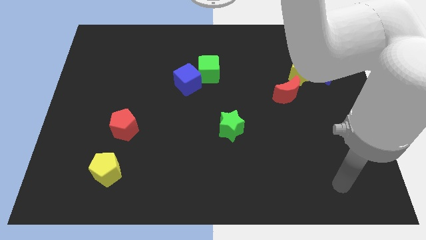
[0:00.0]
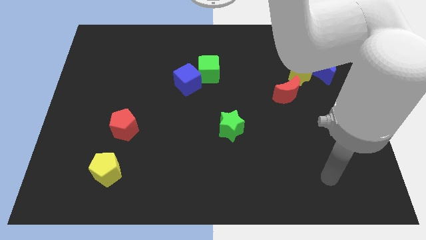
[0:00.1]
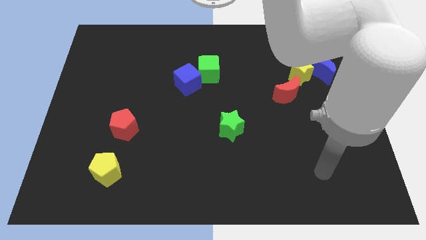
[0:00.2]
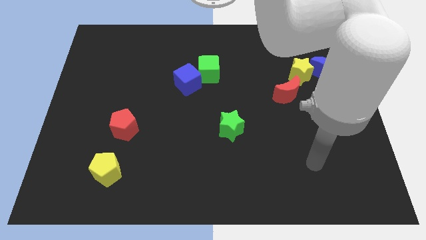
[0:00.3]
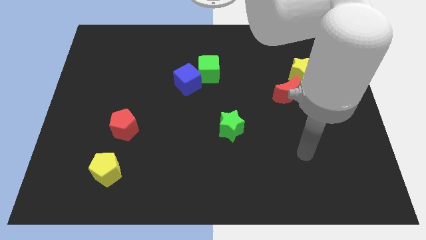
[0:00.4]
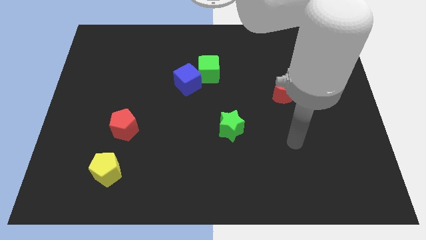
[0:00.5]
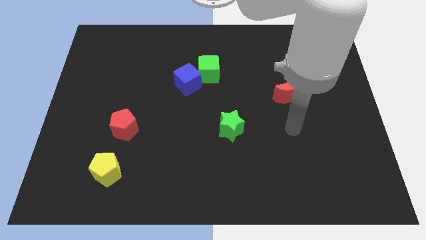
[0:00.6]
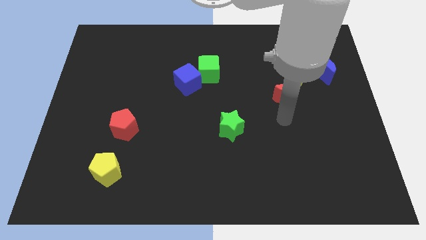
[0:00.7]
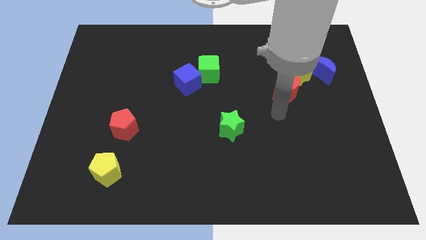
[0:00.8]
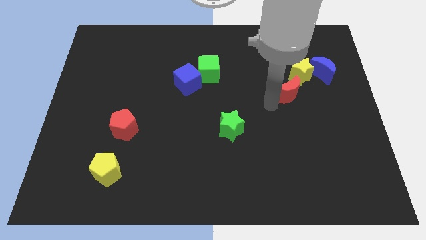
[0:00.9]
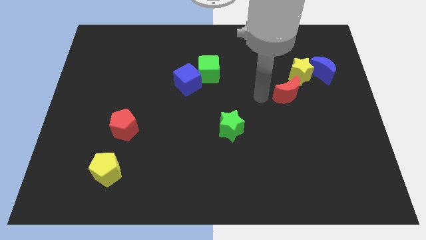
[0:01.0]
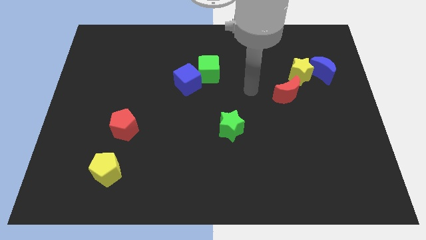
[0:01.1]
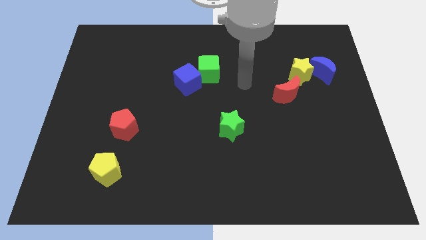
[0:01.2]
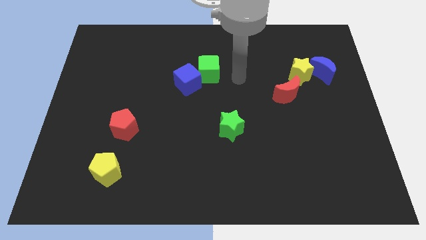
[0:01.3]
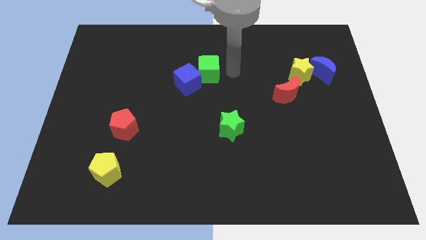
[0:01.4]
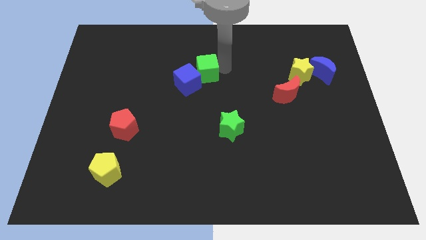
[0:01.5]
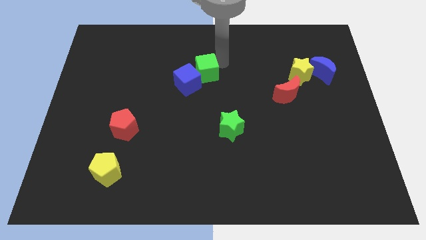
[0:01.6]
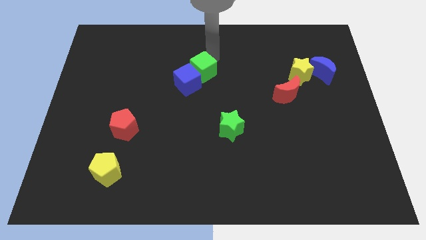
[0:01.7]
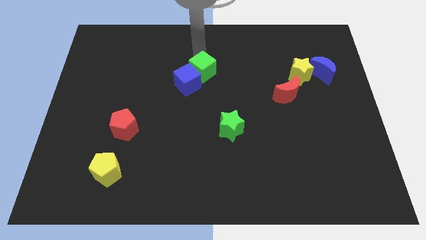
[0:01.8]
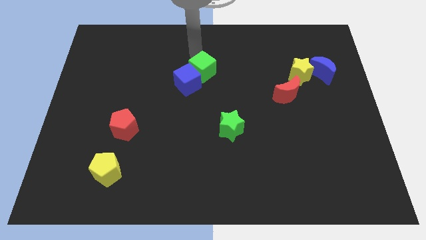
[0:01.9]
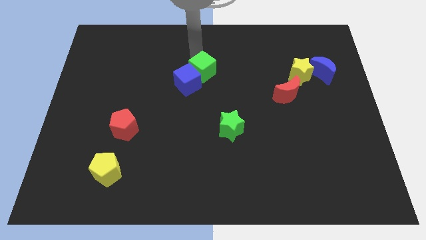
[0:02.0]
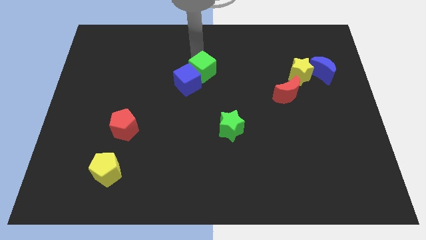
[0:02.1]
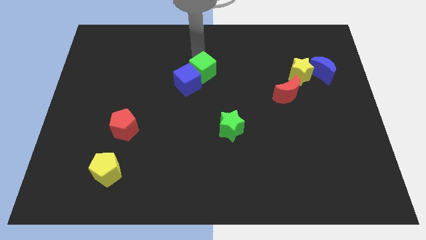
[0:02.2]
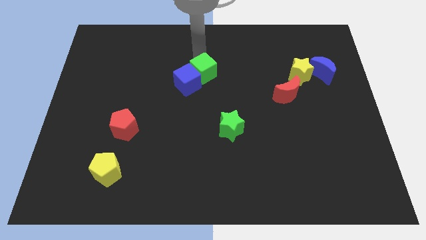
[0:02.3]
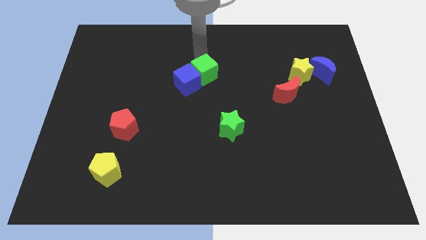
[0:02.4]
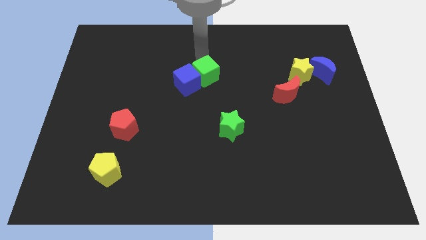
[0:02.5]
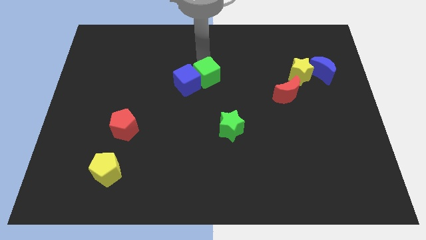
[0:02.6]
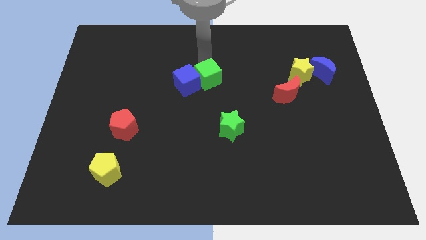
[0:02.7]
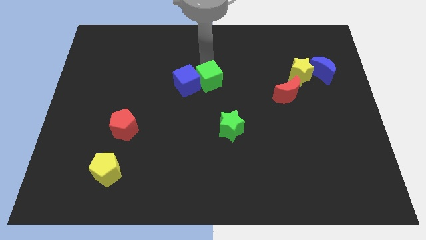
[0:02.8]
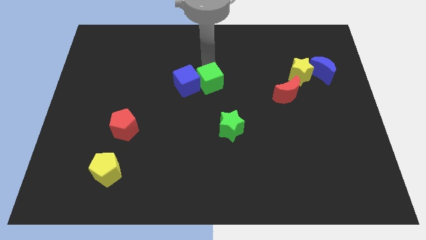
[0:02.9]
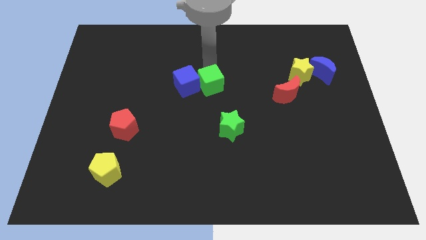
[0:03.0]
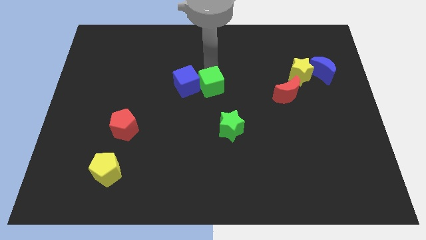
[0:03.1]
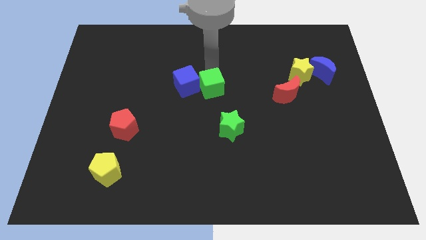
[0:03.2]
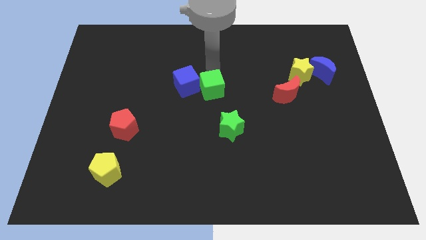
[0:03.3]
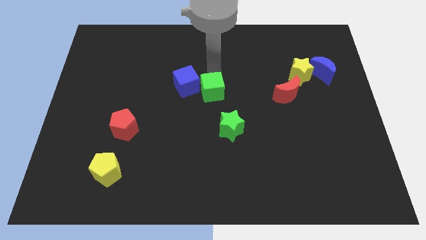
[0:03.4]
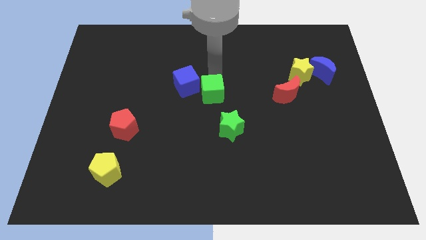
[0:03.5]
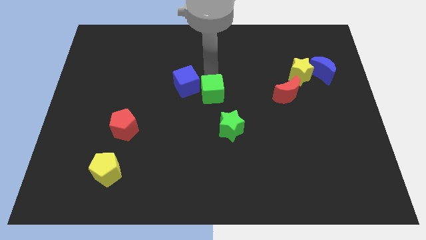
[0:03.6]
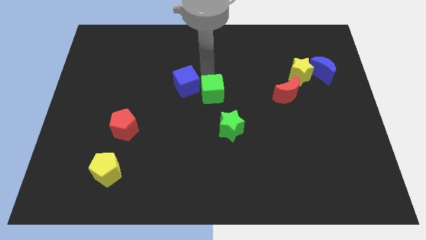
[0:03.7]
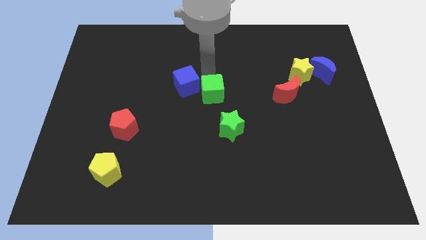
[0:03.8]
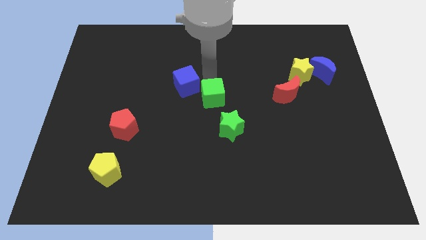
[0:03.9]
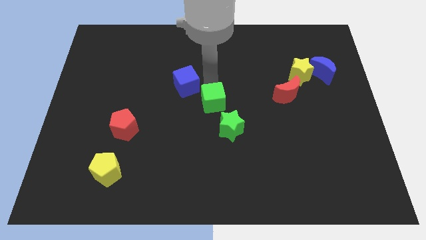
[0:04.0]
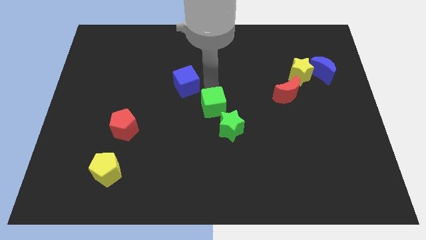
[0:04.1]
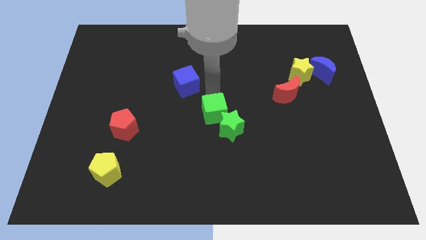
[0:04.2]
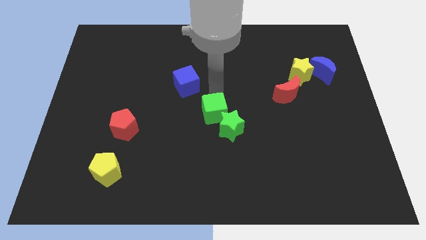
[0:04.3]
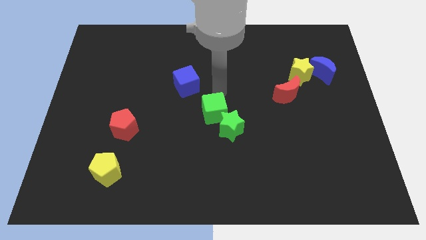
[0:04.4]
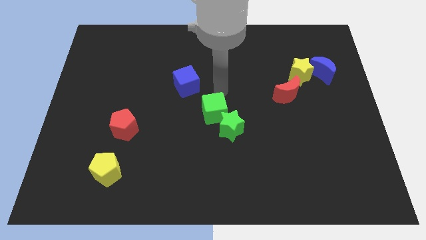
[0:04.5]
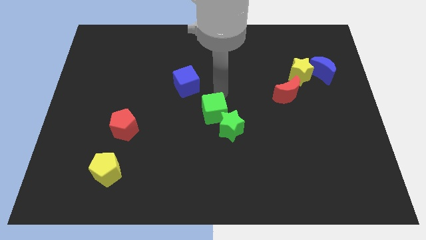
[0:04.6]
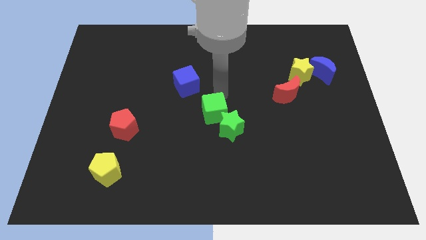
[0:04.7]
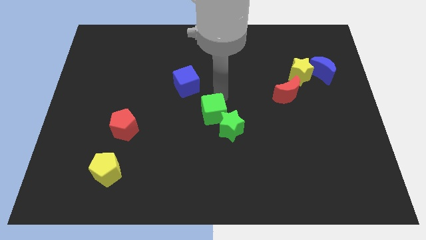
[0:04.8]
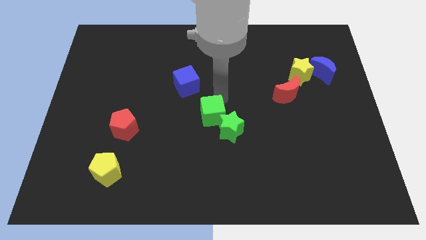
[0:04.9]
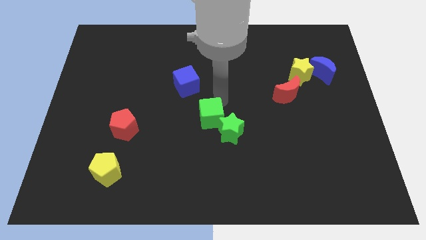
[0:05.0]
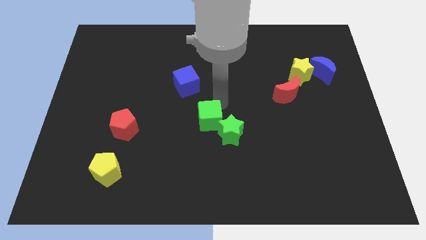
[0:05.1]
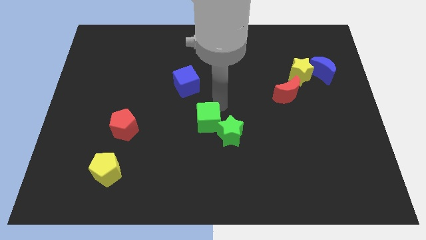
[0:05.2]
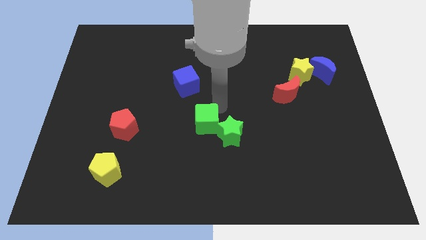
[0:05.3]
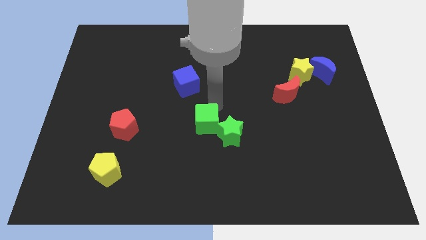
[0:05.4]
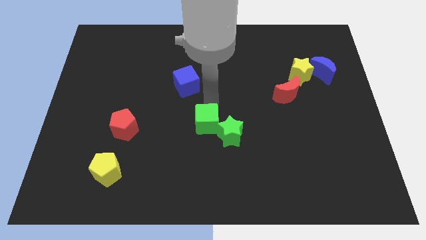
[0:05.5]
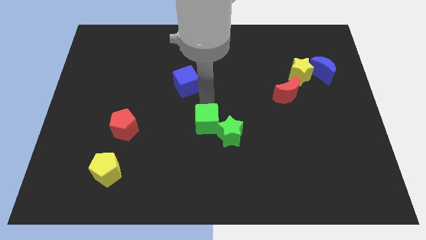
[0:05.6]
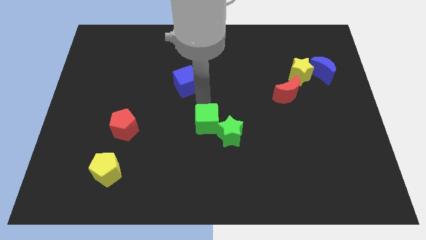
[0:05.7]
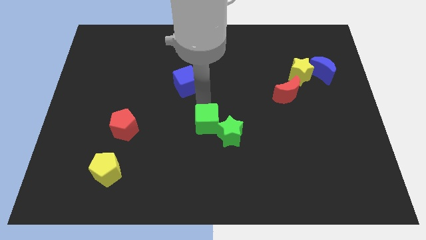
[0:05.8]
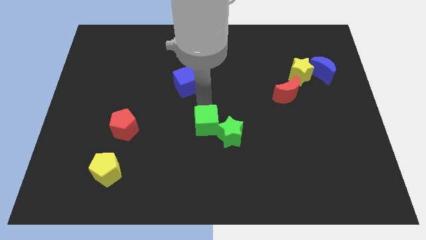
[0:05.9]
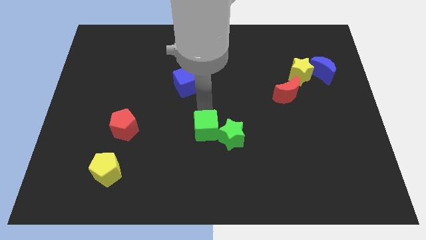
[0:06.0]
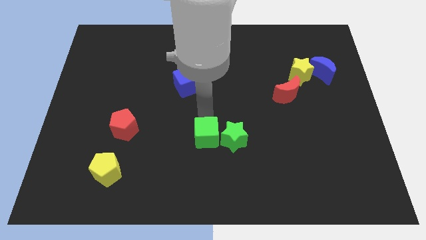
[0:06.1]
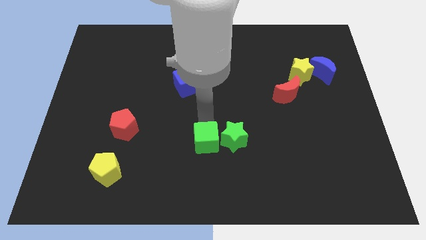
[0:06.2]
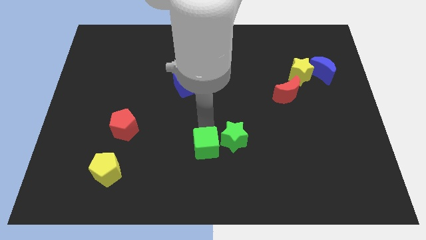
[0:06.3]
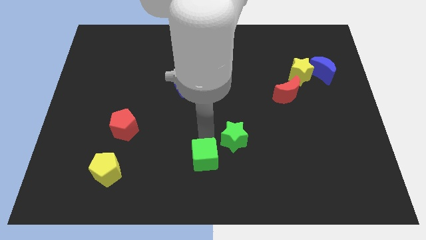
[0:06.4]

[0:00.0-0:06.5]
push the green cube to the bottom side
